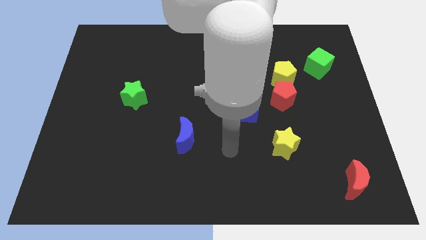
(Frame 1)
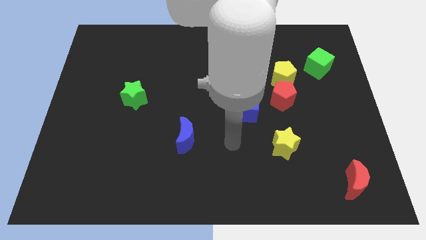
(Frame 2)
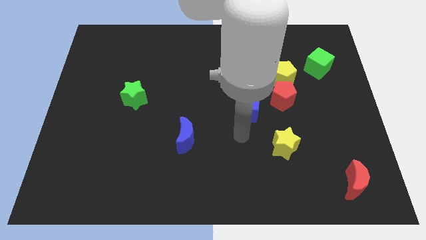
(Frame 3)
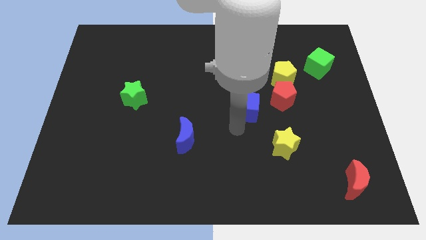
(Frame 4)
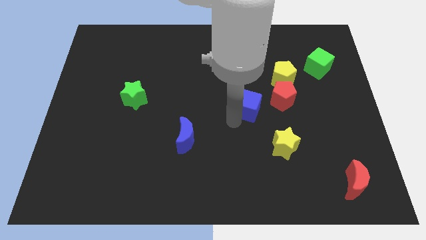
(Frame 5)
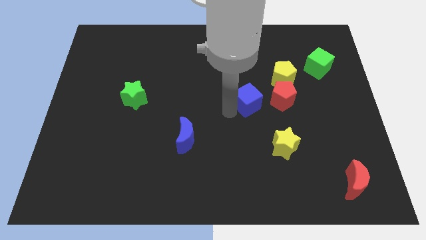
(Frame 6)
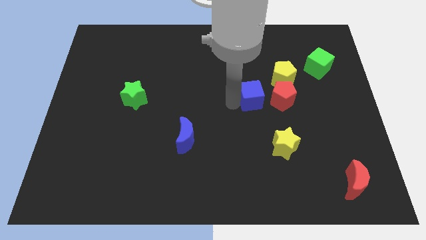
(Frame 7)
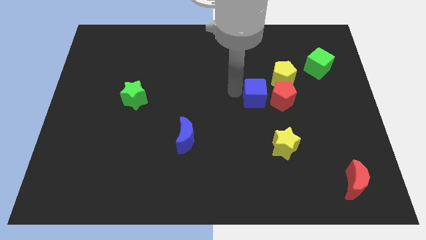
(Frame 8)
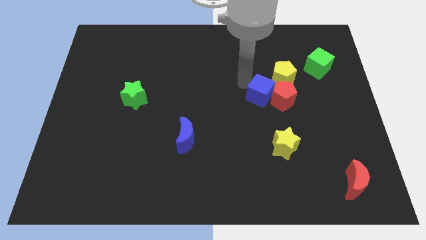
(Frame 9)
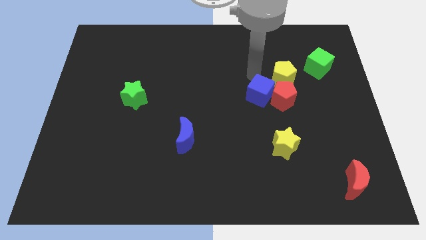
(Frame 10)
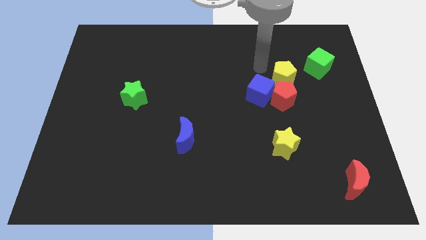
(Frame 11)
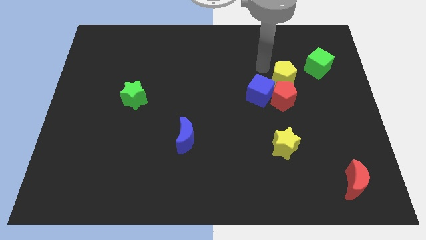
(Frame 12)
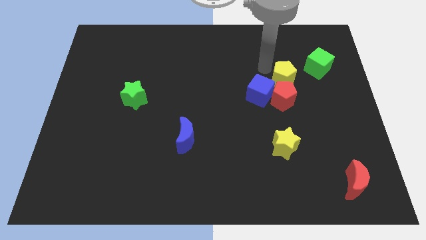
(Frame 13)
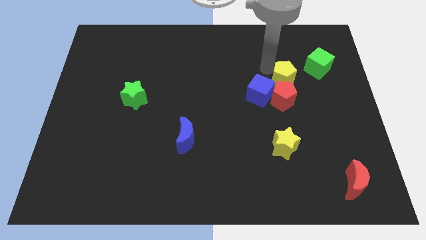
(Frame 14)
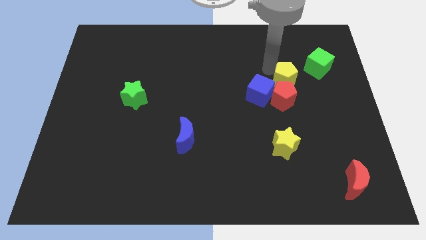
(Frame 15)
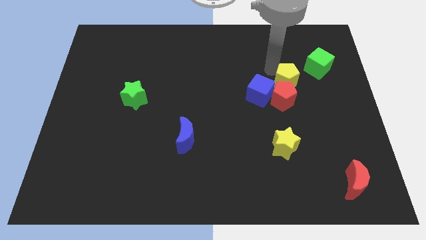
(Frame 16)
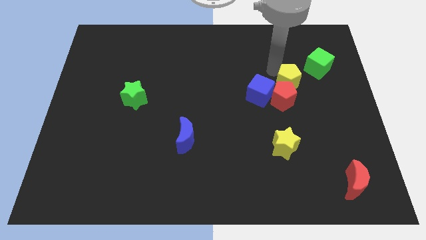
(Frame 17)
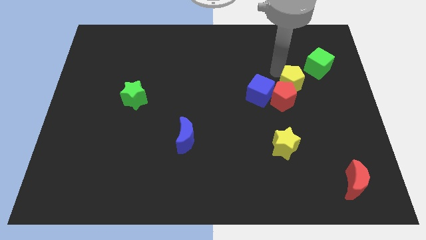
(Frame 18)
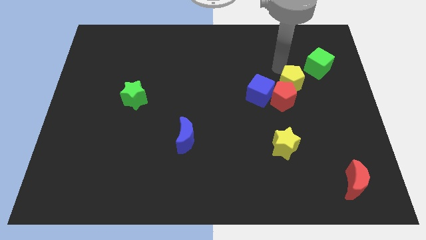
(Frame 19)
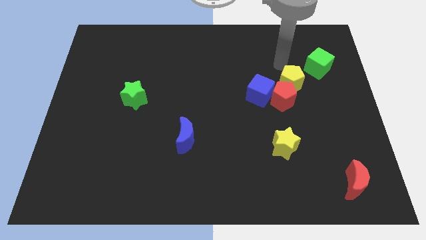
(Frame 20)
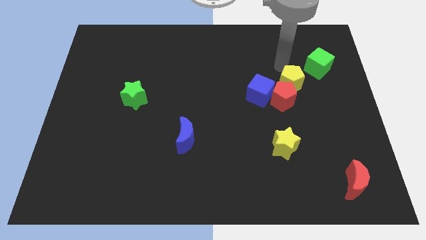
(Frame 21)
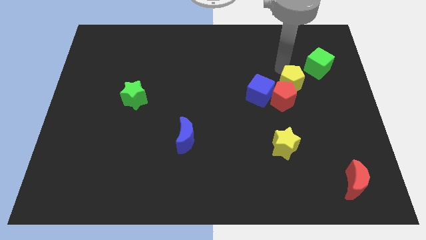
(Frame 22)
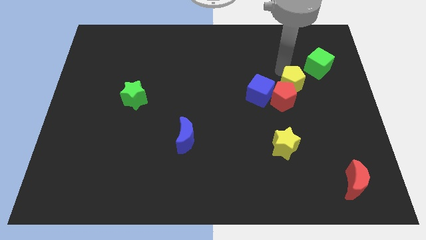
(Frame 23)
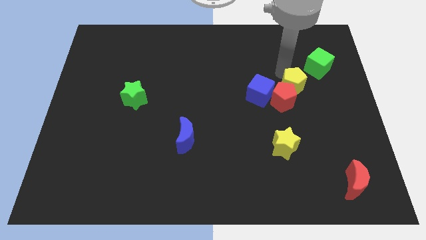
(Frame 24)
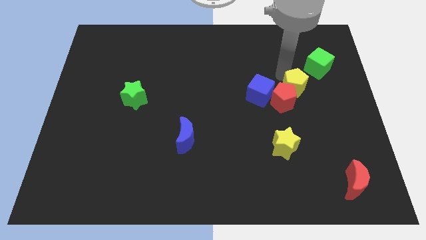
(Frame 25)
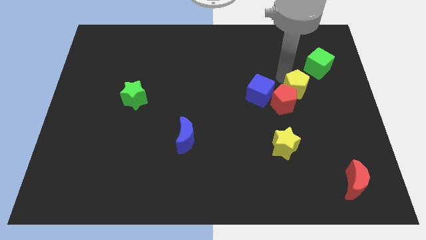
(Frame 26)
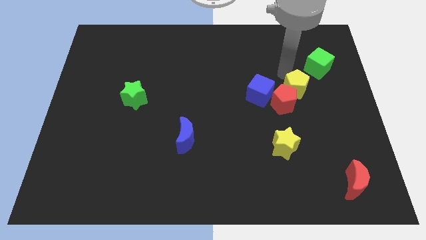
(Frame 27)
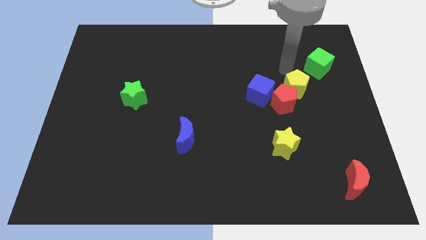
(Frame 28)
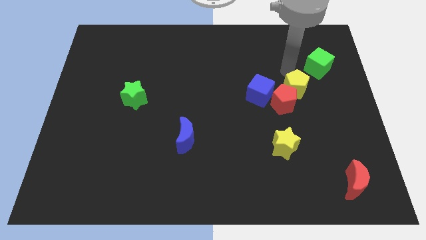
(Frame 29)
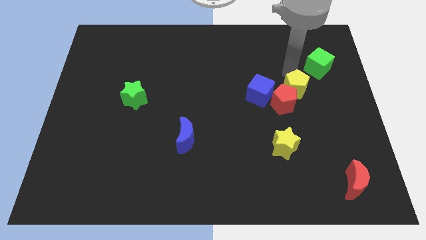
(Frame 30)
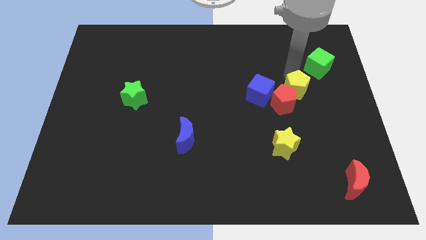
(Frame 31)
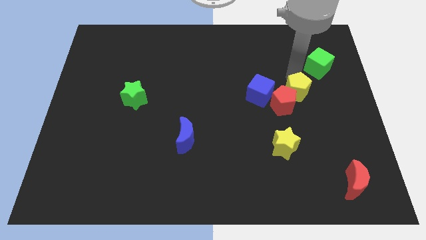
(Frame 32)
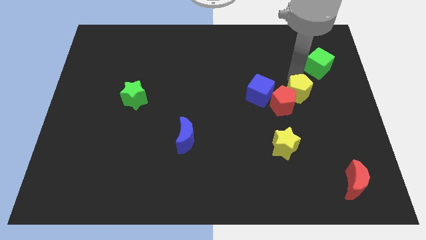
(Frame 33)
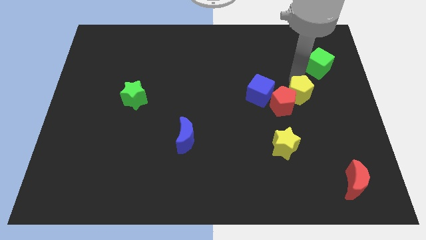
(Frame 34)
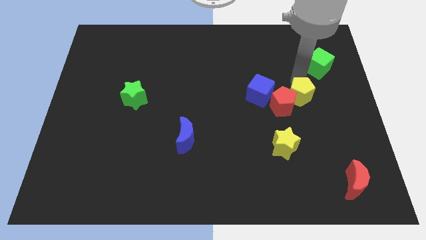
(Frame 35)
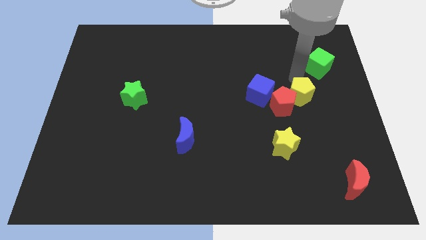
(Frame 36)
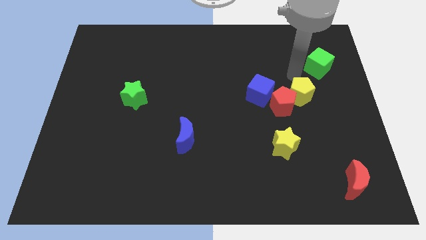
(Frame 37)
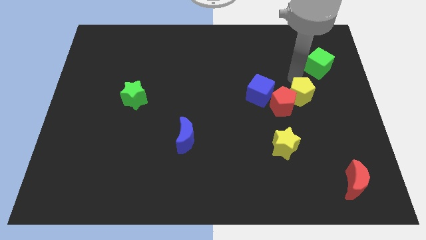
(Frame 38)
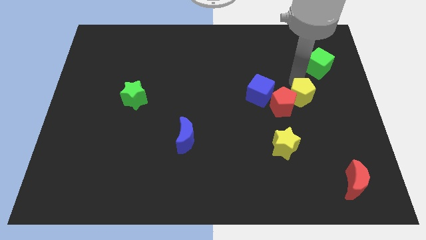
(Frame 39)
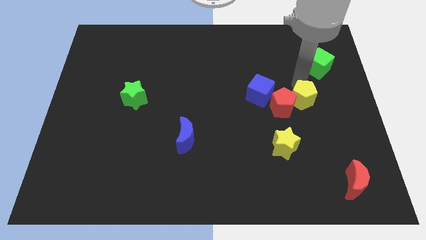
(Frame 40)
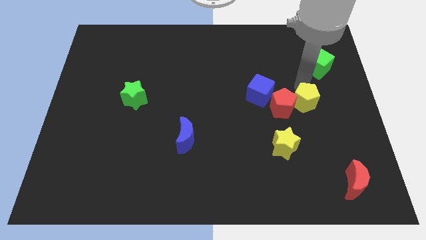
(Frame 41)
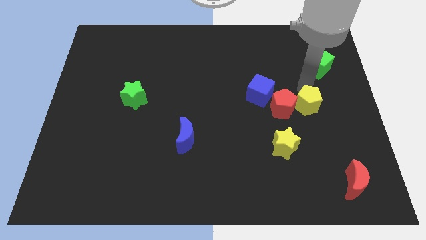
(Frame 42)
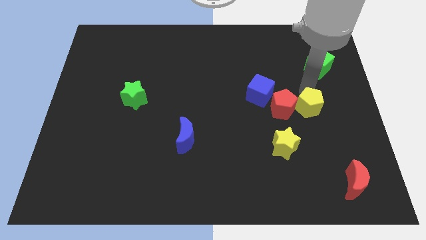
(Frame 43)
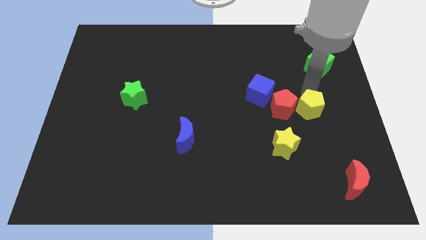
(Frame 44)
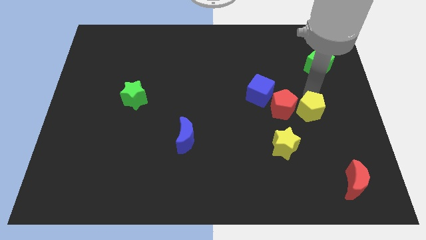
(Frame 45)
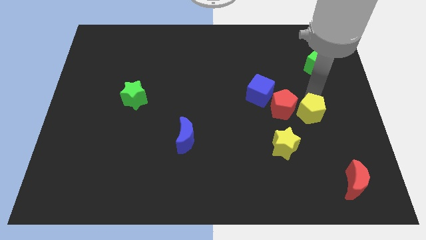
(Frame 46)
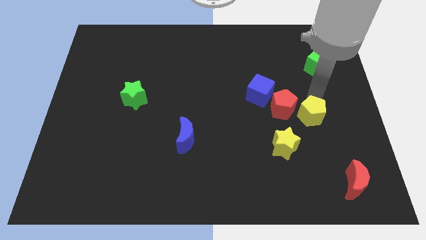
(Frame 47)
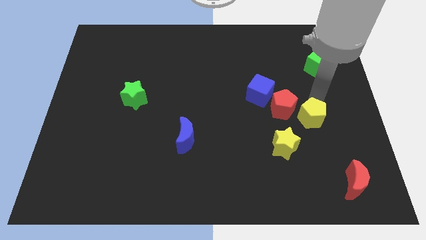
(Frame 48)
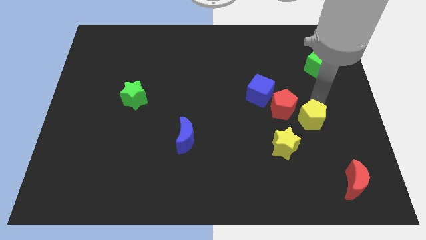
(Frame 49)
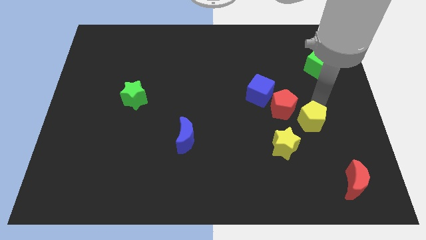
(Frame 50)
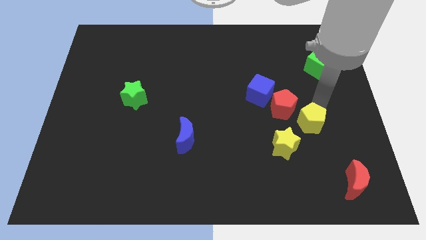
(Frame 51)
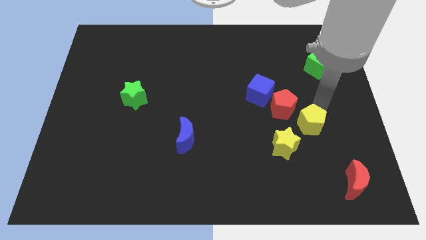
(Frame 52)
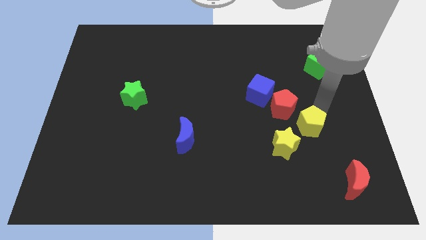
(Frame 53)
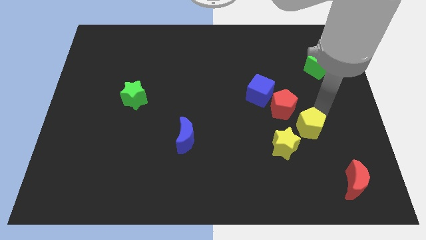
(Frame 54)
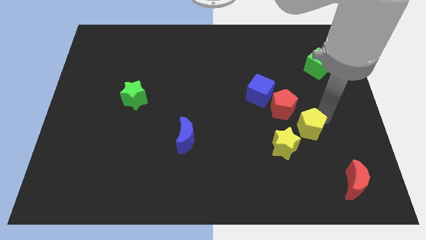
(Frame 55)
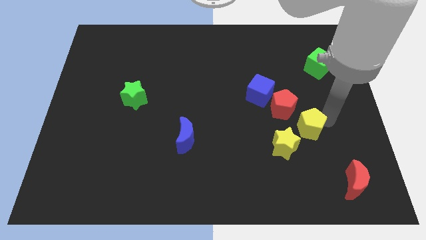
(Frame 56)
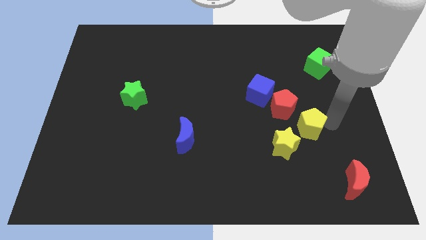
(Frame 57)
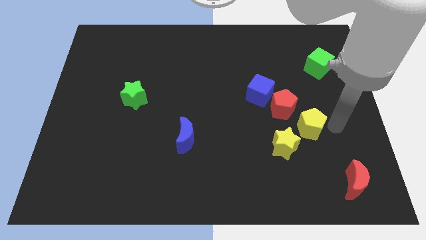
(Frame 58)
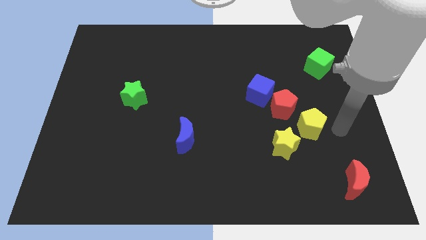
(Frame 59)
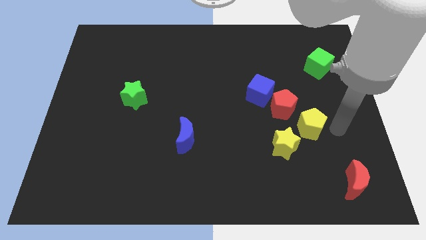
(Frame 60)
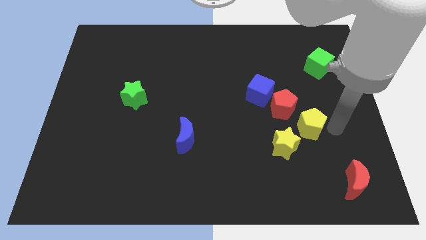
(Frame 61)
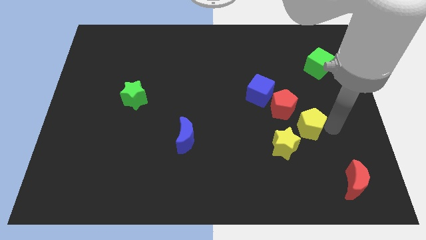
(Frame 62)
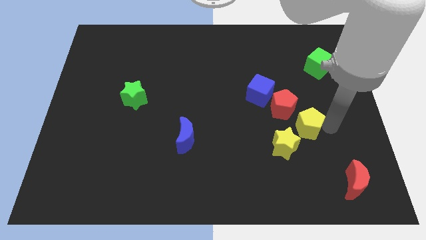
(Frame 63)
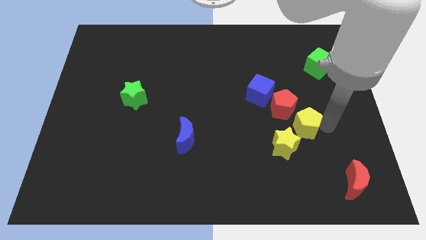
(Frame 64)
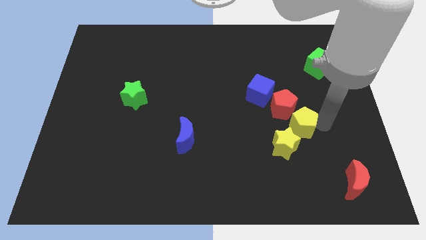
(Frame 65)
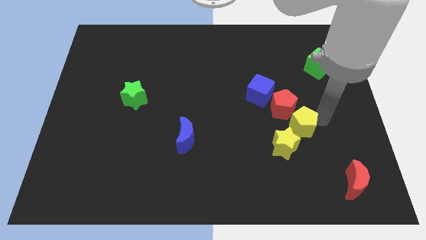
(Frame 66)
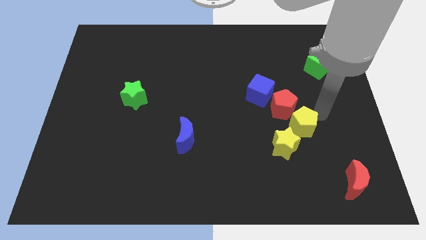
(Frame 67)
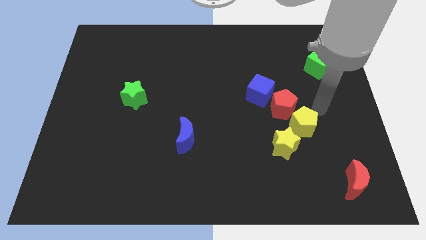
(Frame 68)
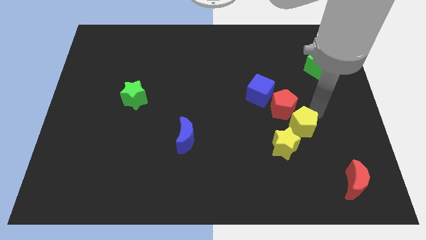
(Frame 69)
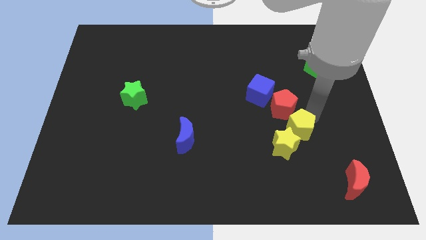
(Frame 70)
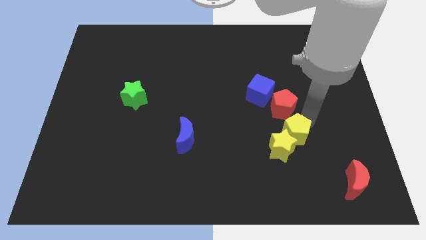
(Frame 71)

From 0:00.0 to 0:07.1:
put the yellow pentagon next to the yellow star
